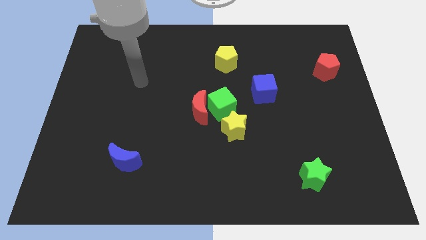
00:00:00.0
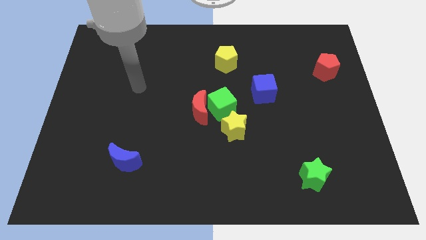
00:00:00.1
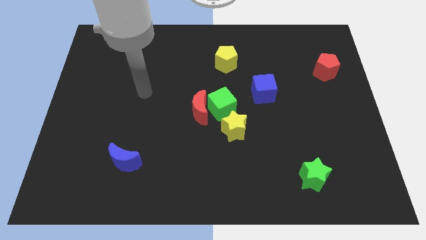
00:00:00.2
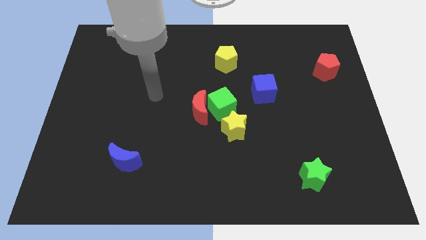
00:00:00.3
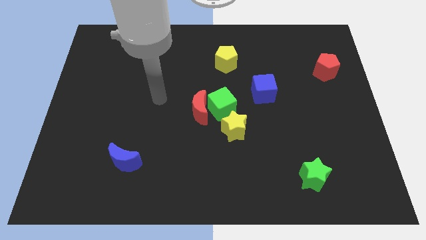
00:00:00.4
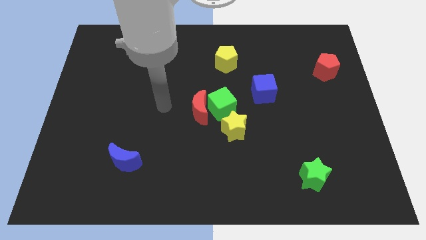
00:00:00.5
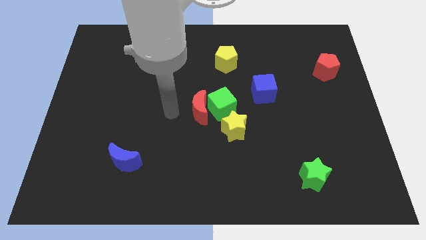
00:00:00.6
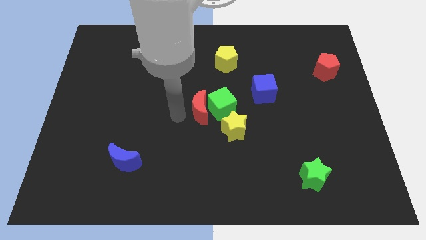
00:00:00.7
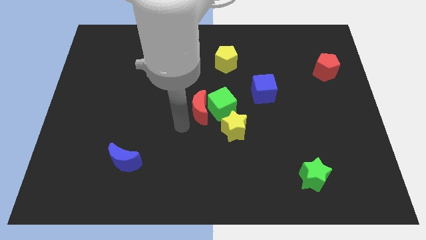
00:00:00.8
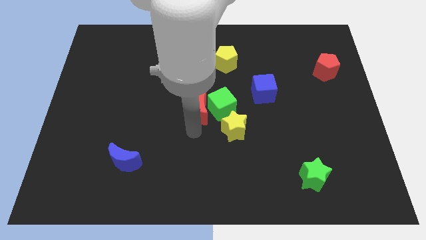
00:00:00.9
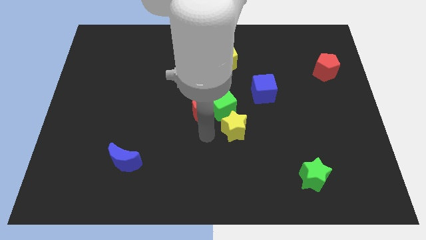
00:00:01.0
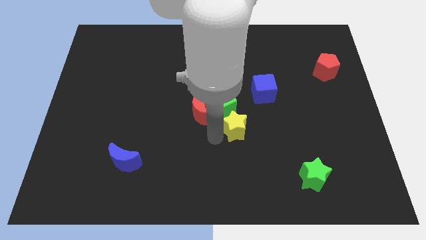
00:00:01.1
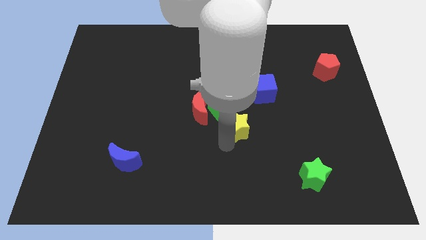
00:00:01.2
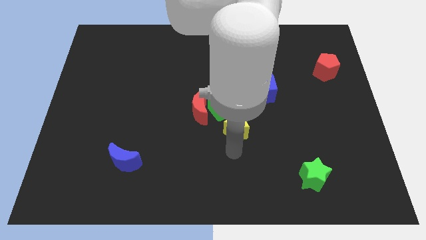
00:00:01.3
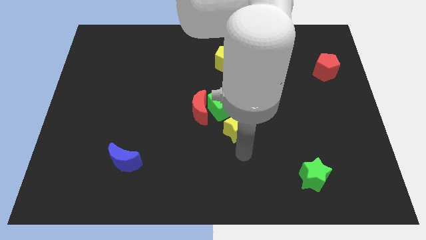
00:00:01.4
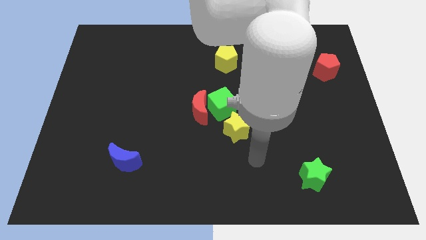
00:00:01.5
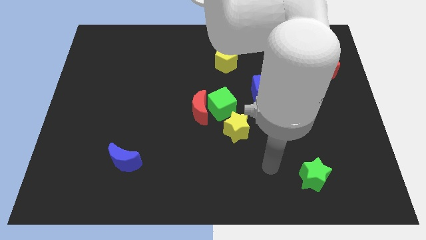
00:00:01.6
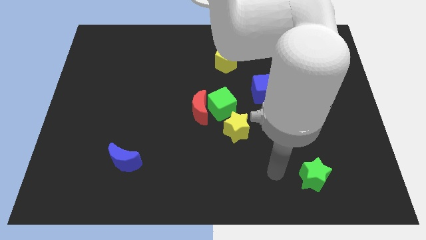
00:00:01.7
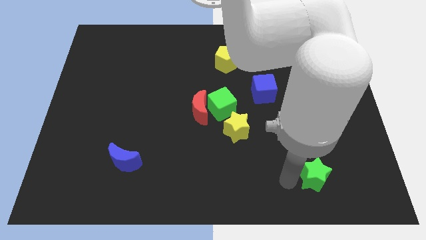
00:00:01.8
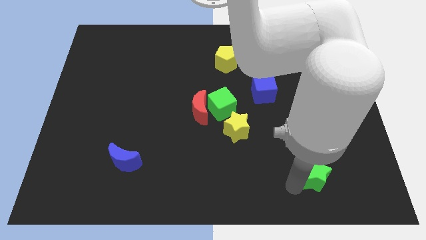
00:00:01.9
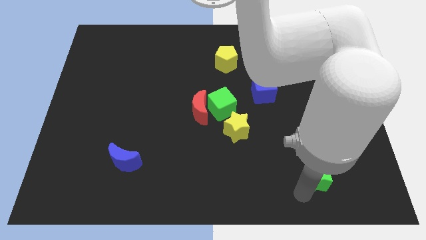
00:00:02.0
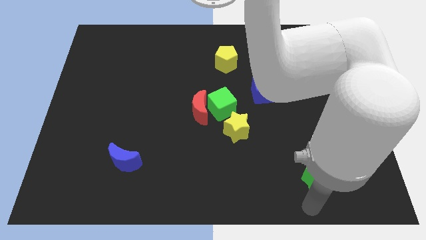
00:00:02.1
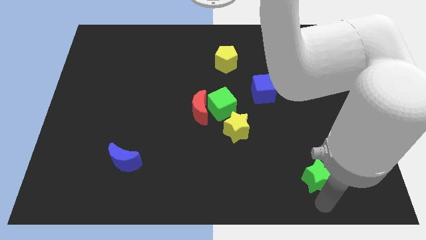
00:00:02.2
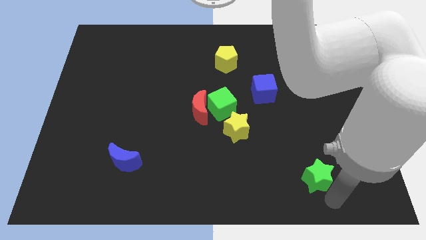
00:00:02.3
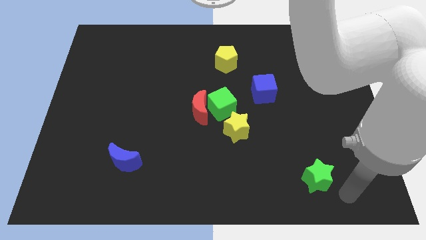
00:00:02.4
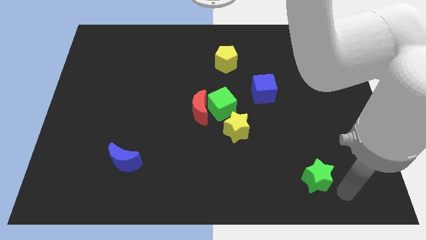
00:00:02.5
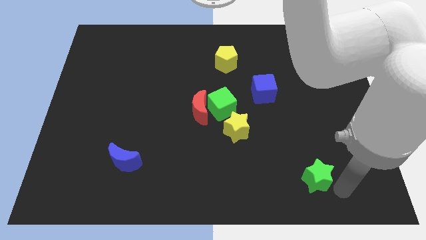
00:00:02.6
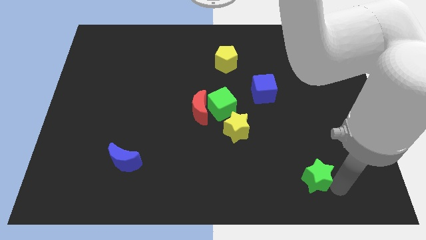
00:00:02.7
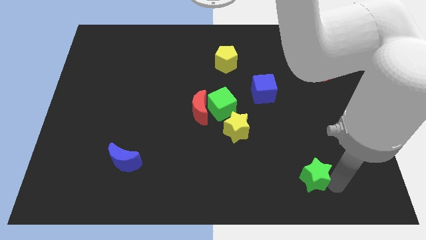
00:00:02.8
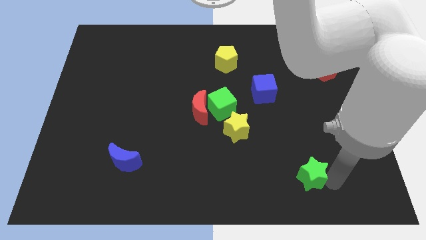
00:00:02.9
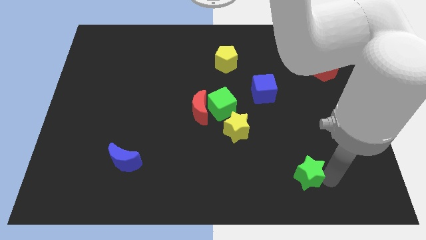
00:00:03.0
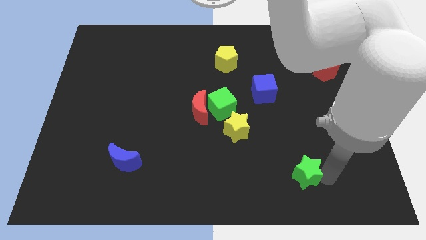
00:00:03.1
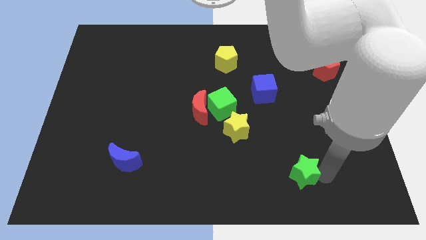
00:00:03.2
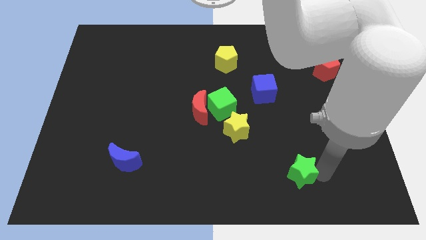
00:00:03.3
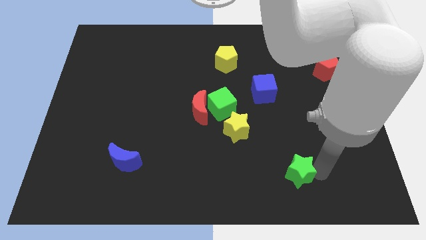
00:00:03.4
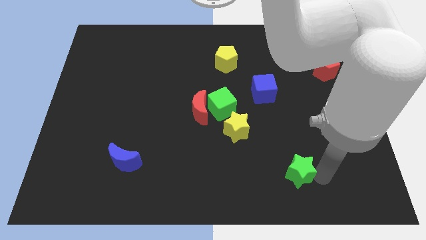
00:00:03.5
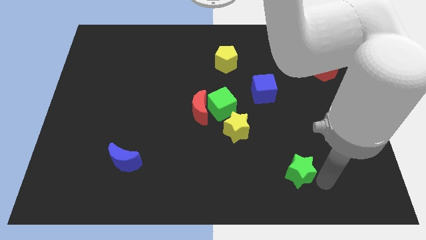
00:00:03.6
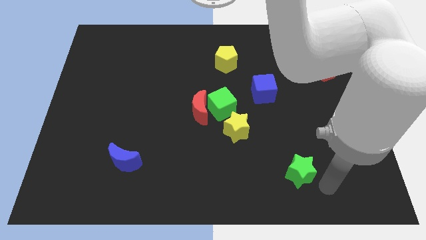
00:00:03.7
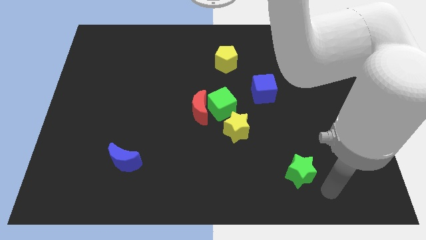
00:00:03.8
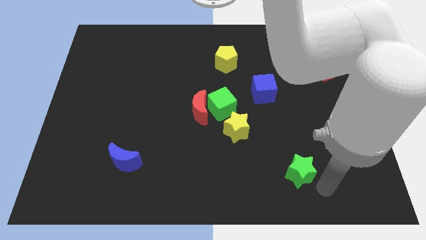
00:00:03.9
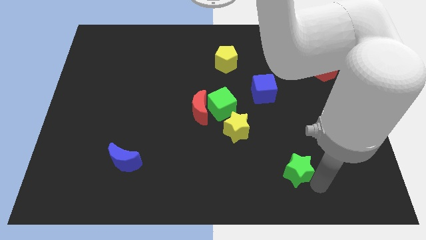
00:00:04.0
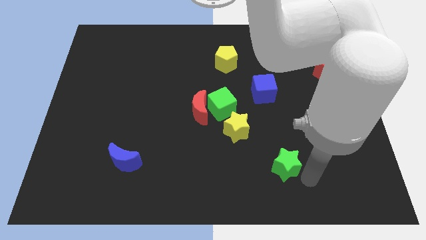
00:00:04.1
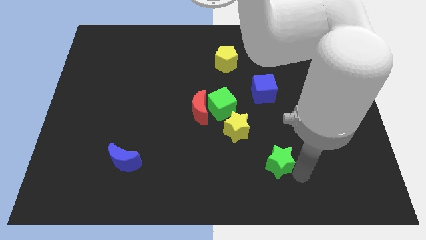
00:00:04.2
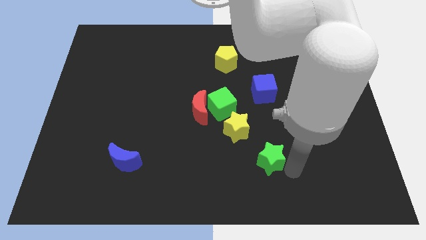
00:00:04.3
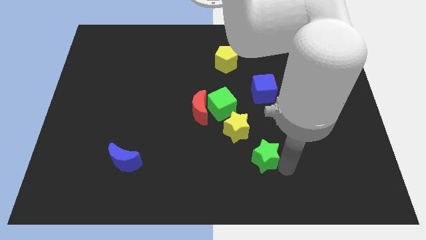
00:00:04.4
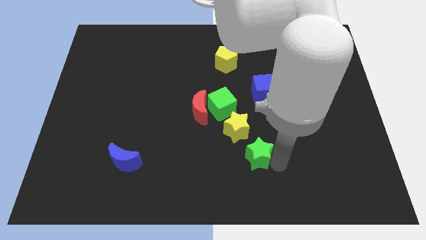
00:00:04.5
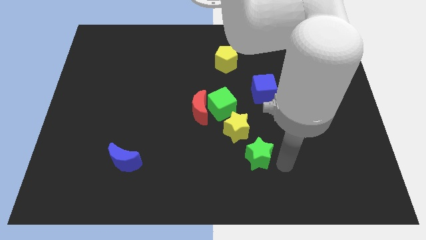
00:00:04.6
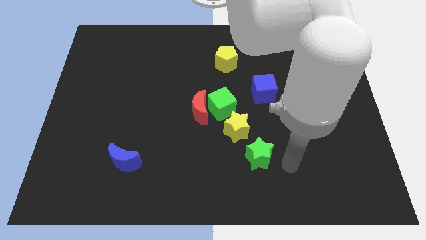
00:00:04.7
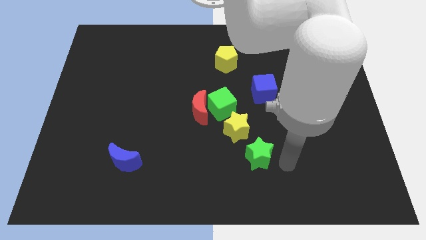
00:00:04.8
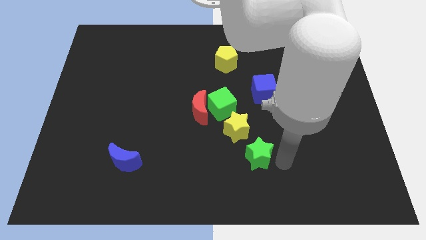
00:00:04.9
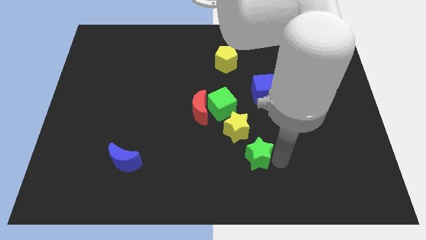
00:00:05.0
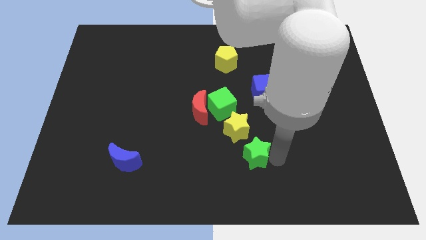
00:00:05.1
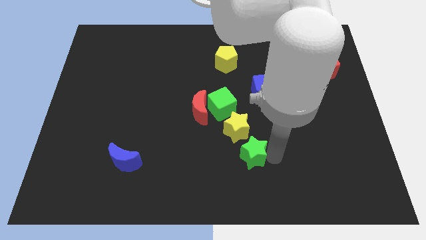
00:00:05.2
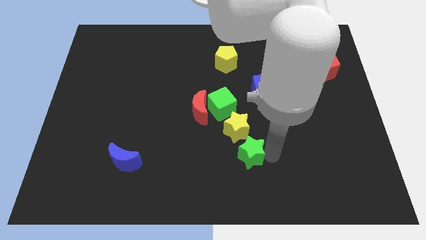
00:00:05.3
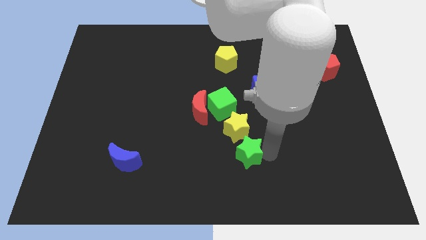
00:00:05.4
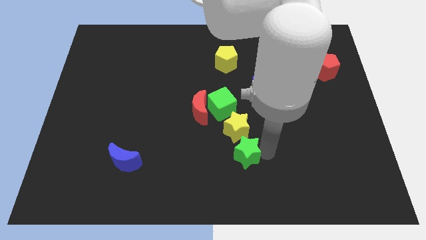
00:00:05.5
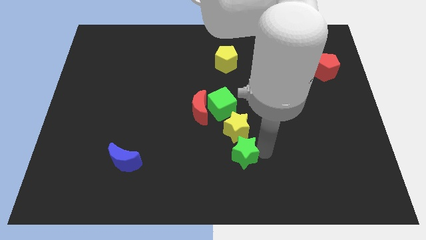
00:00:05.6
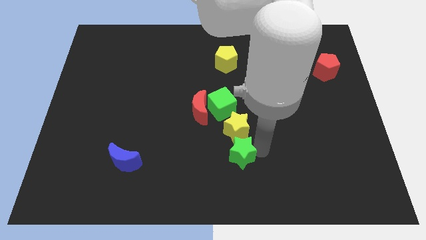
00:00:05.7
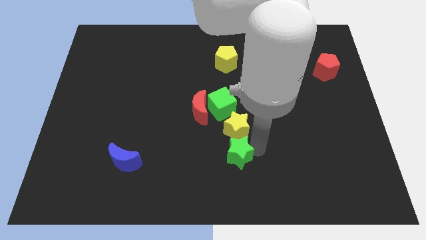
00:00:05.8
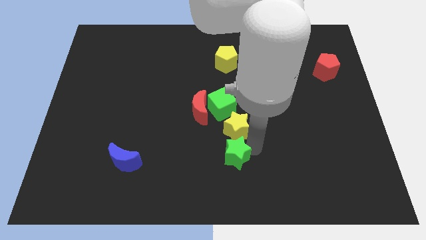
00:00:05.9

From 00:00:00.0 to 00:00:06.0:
move the green star diagonally down and to the left of the yellow star

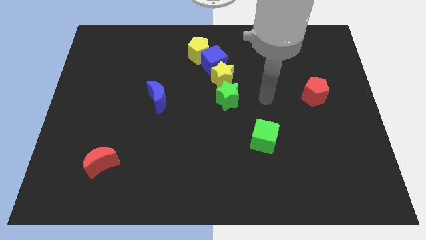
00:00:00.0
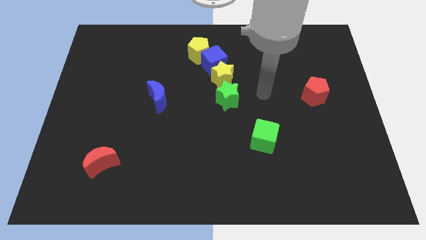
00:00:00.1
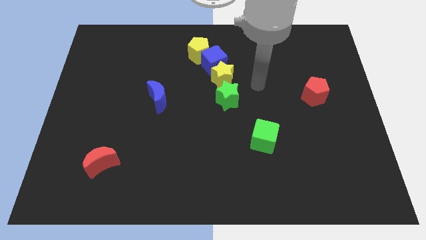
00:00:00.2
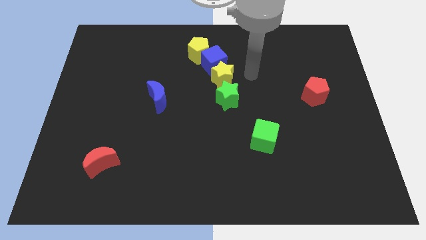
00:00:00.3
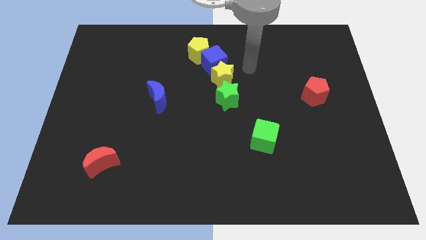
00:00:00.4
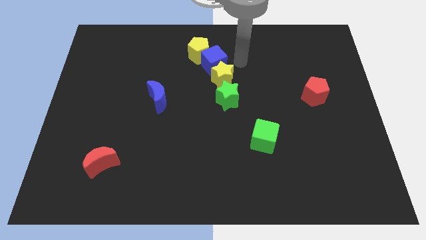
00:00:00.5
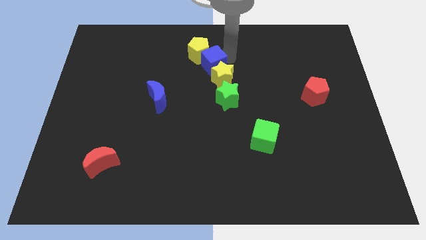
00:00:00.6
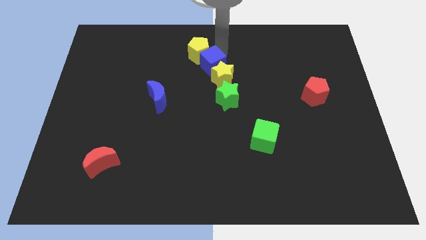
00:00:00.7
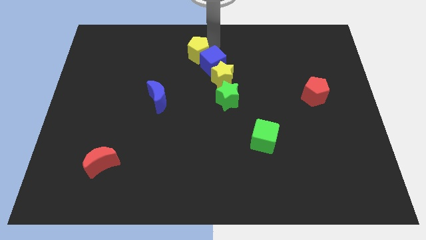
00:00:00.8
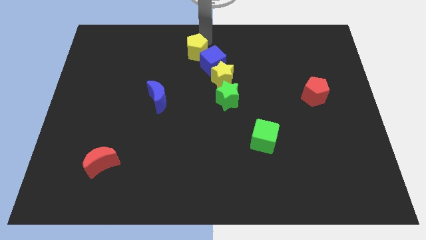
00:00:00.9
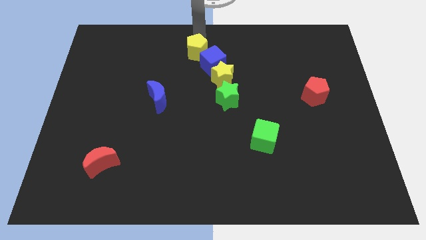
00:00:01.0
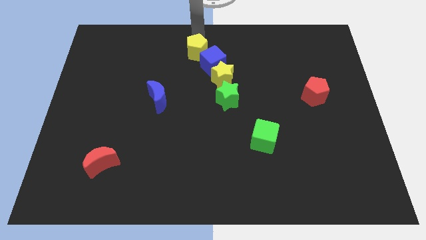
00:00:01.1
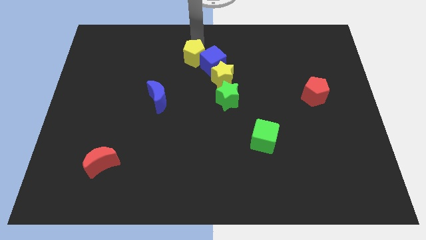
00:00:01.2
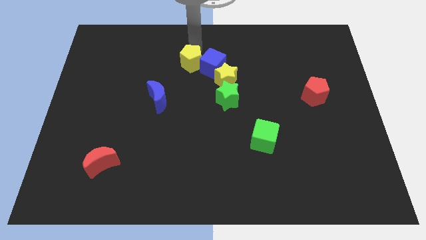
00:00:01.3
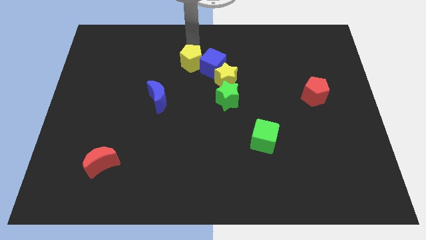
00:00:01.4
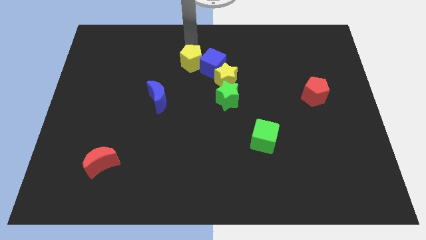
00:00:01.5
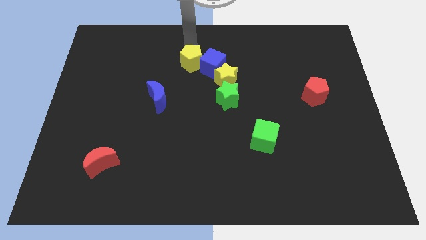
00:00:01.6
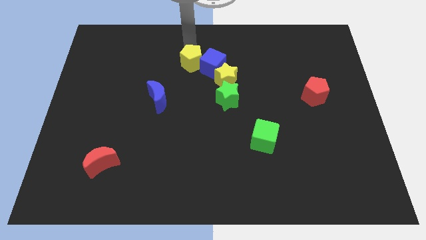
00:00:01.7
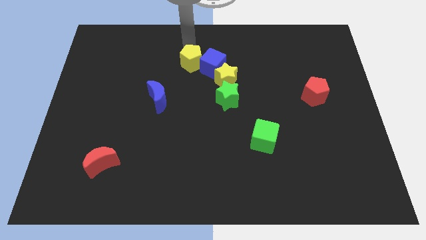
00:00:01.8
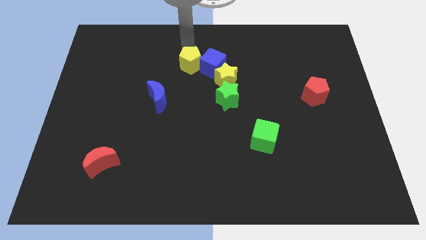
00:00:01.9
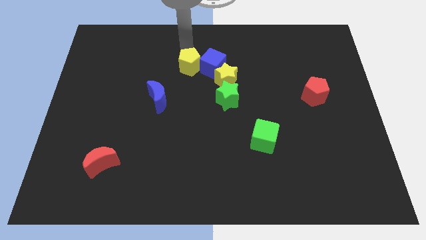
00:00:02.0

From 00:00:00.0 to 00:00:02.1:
put the yellow pentagon to the bottom left side of the blue cube
